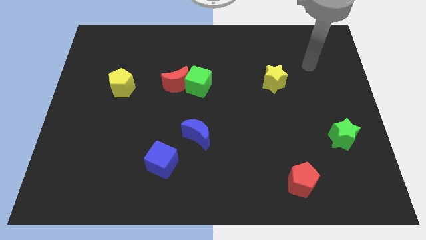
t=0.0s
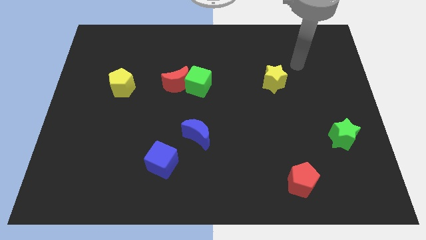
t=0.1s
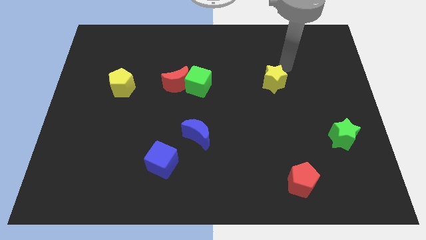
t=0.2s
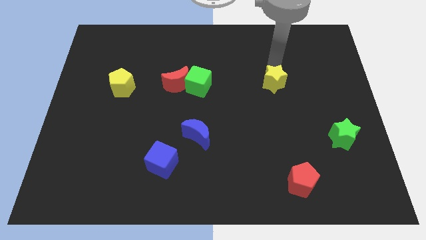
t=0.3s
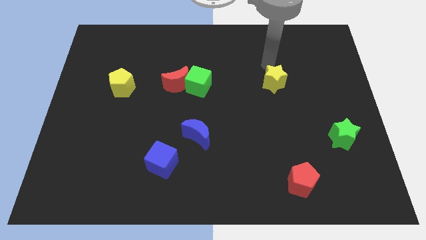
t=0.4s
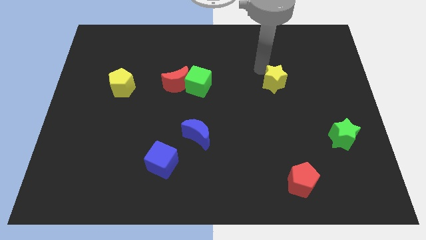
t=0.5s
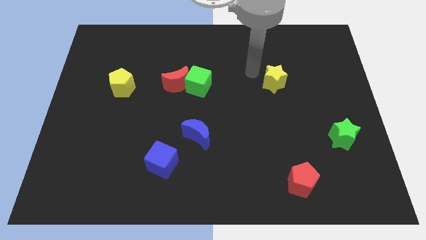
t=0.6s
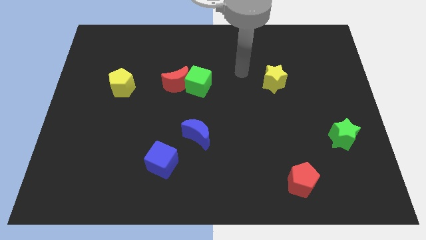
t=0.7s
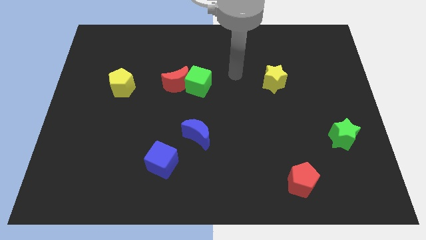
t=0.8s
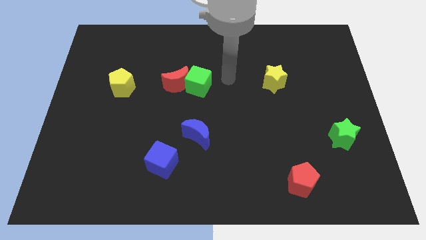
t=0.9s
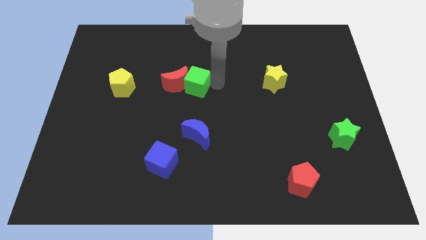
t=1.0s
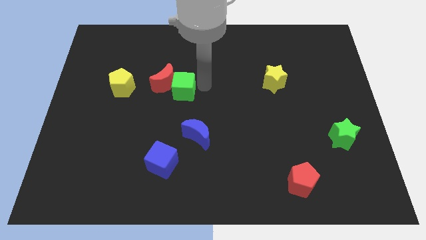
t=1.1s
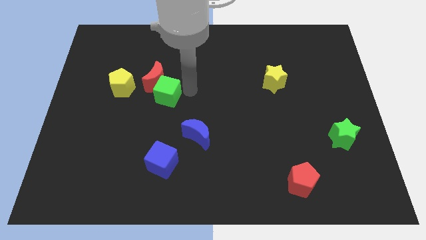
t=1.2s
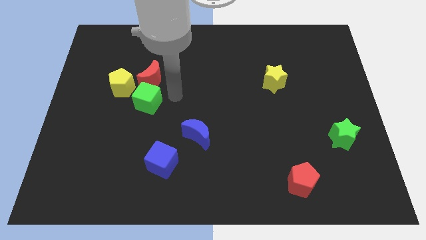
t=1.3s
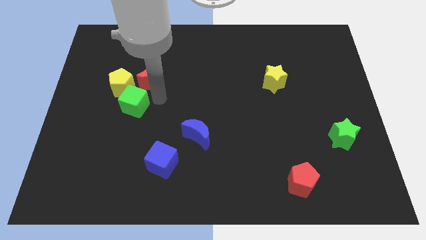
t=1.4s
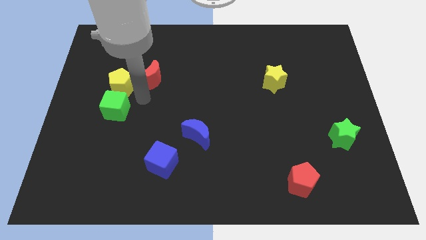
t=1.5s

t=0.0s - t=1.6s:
move the red moon away from the green cube

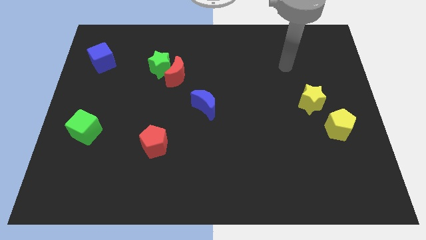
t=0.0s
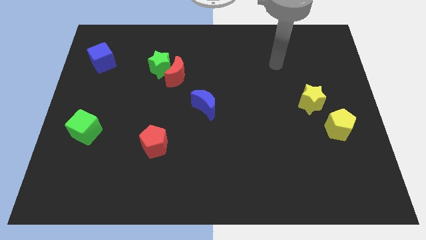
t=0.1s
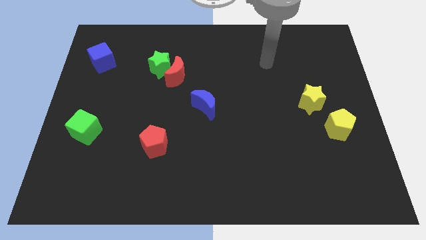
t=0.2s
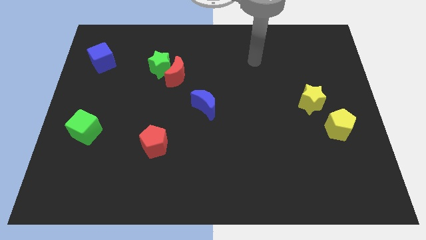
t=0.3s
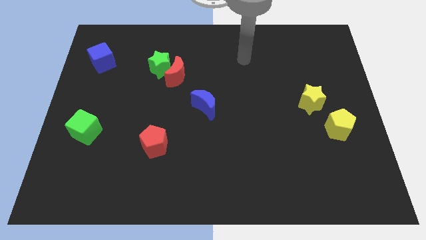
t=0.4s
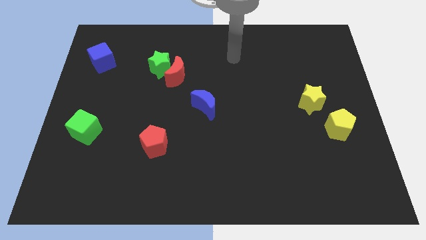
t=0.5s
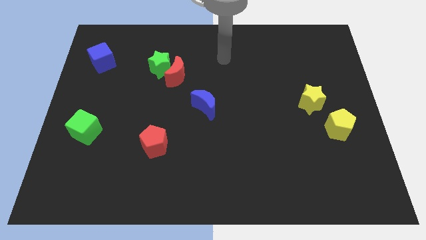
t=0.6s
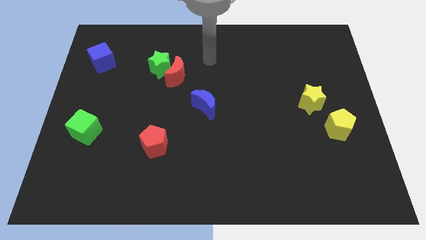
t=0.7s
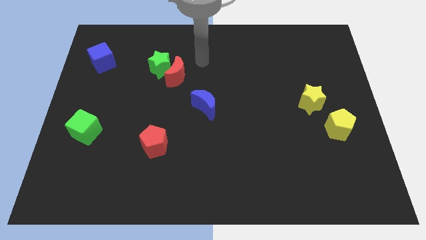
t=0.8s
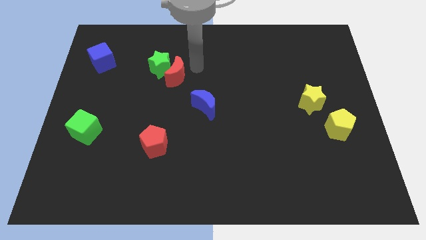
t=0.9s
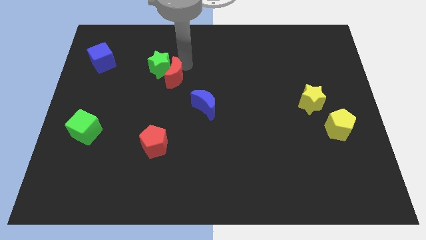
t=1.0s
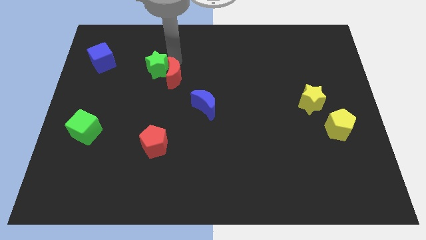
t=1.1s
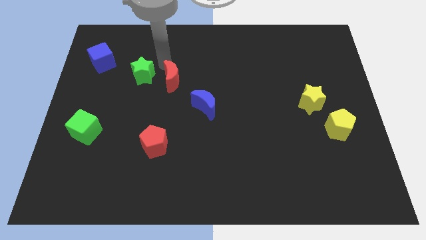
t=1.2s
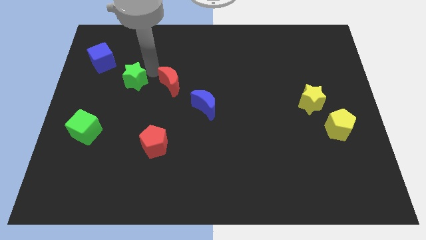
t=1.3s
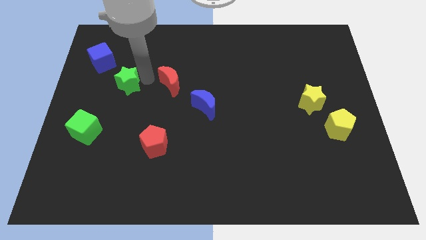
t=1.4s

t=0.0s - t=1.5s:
move the red moon away from the green star

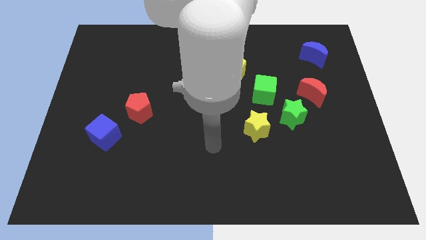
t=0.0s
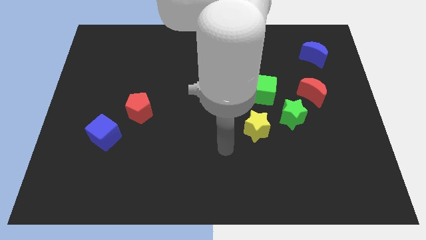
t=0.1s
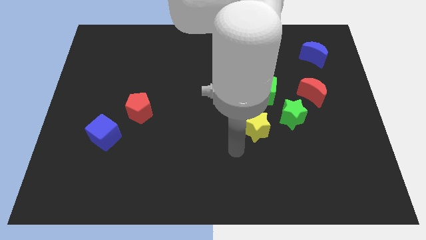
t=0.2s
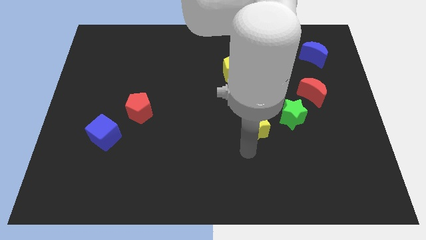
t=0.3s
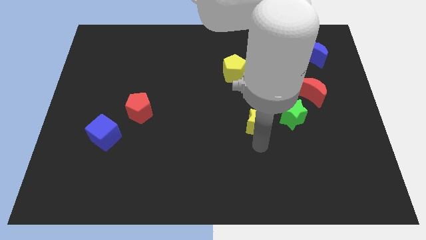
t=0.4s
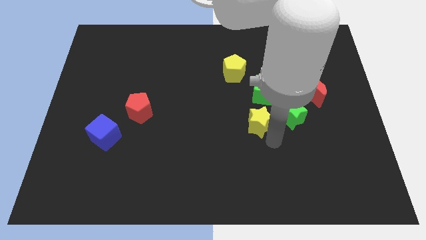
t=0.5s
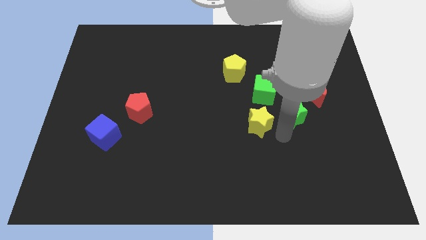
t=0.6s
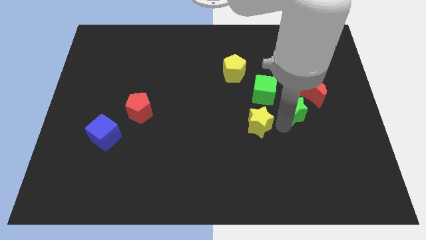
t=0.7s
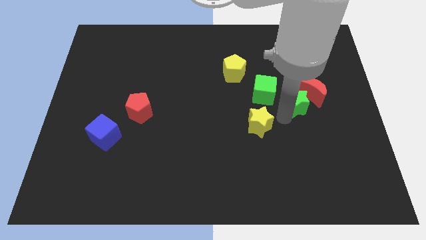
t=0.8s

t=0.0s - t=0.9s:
pull the yellow star apart from the green star

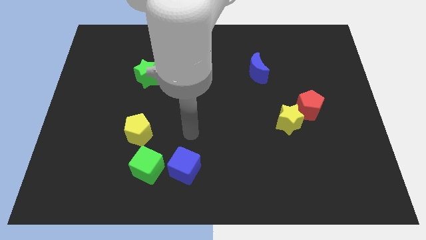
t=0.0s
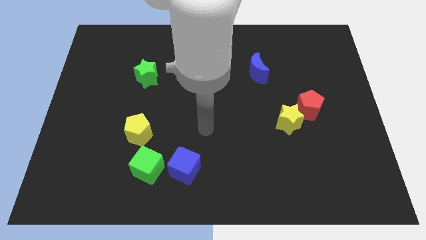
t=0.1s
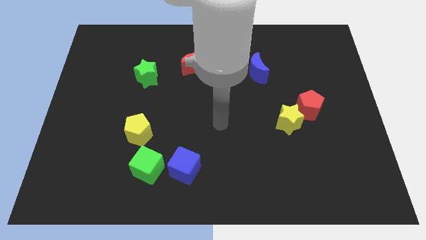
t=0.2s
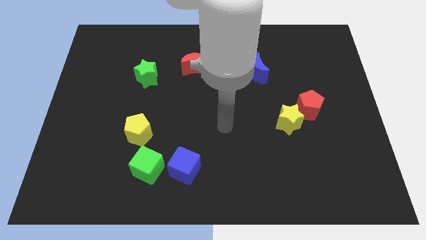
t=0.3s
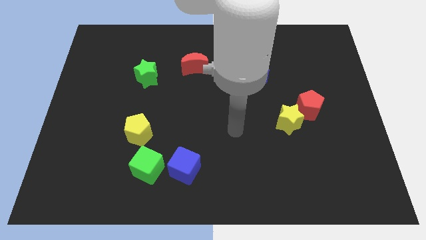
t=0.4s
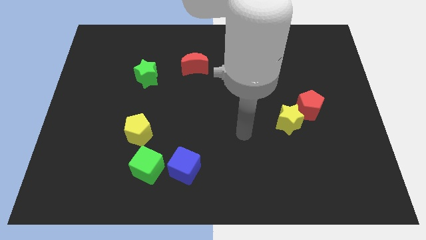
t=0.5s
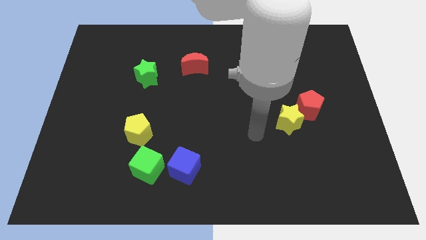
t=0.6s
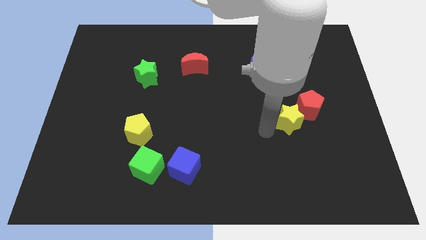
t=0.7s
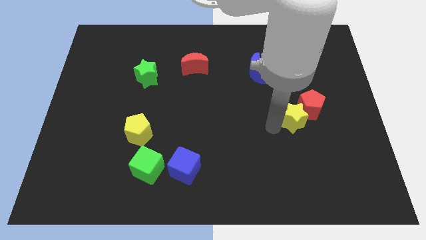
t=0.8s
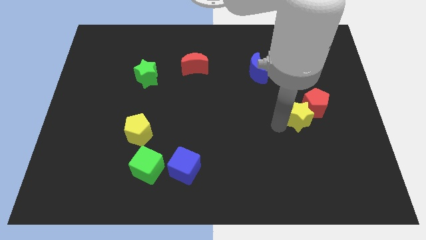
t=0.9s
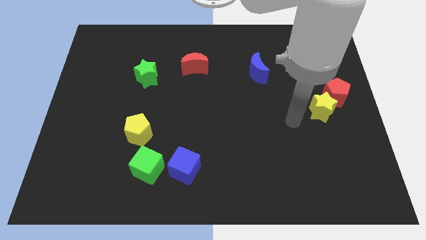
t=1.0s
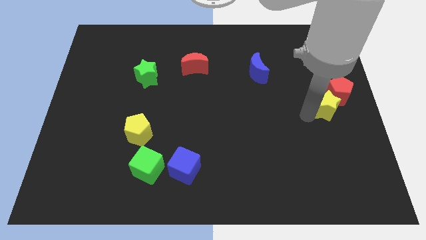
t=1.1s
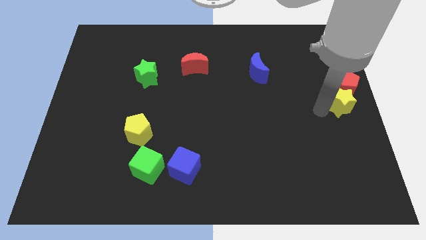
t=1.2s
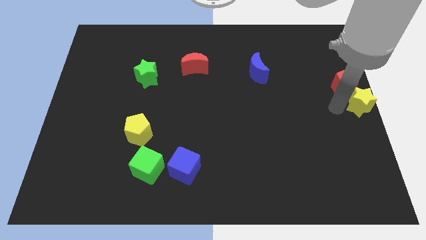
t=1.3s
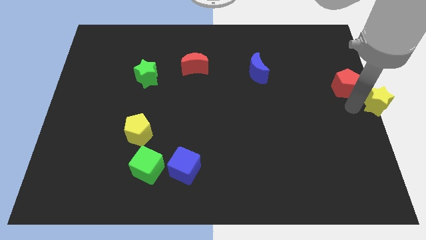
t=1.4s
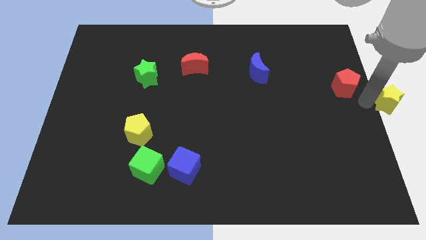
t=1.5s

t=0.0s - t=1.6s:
move the red pentagon away from the yellow star

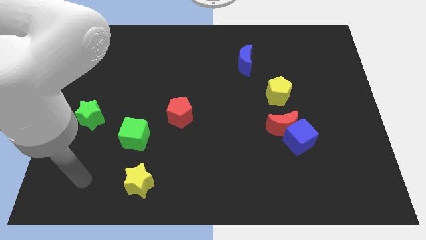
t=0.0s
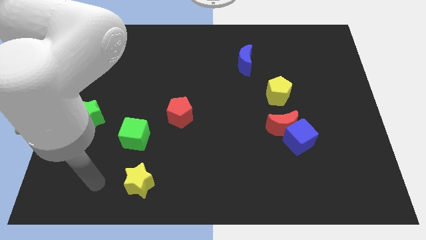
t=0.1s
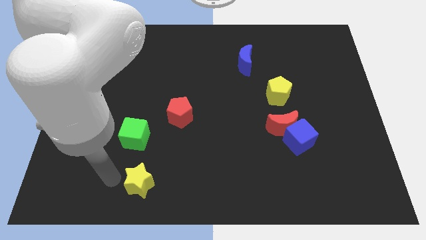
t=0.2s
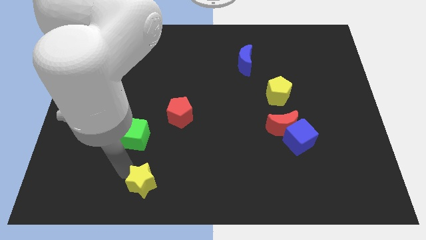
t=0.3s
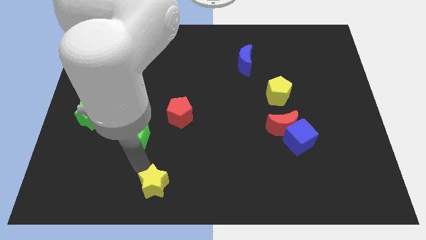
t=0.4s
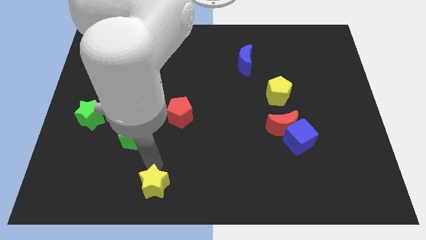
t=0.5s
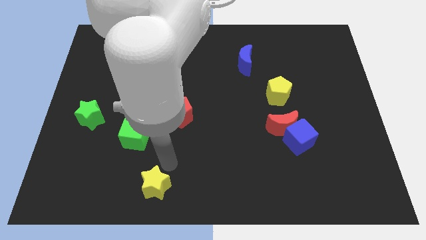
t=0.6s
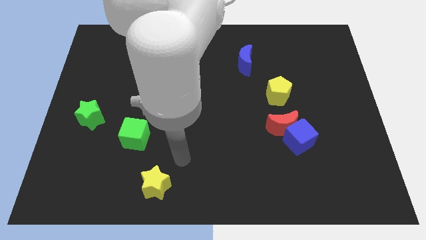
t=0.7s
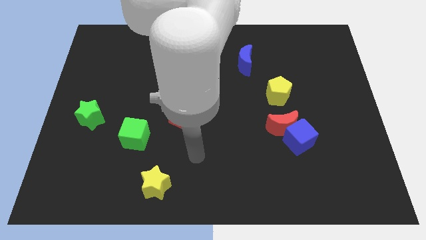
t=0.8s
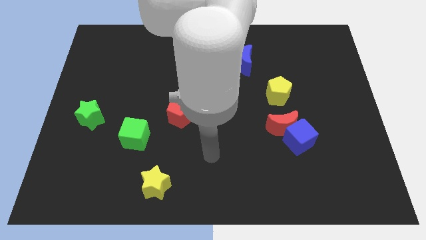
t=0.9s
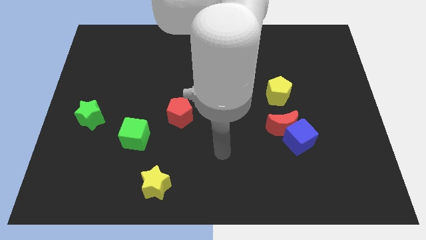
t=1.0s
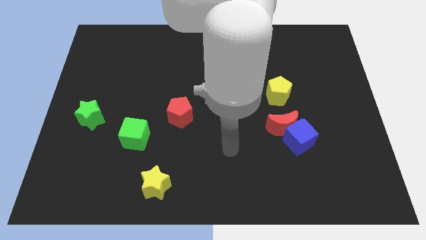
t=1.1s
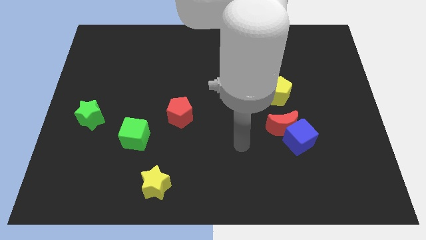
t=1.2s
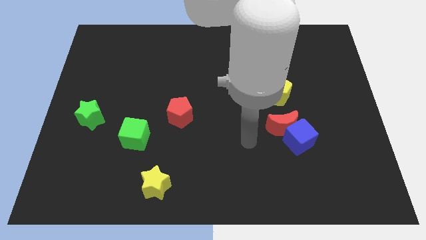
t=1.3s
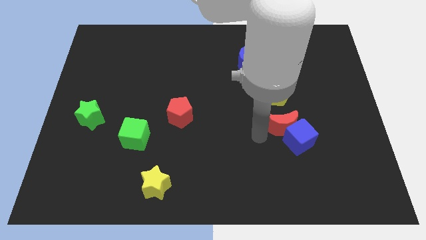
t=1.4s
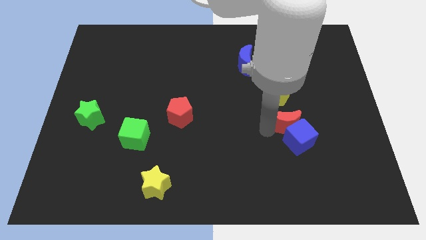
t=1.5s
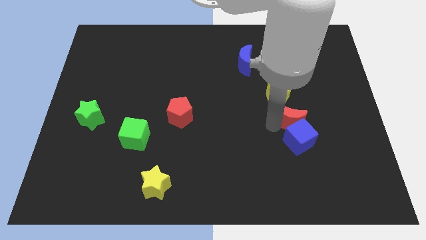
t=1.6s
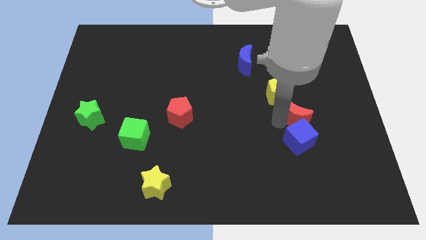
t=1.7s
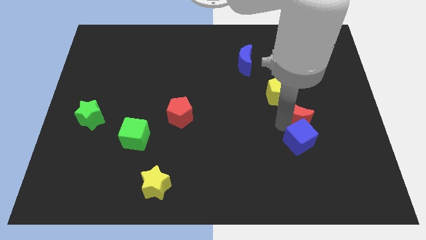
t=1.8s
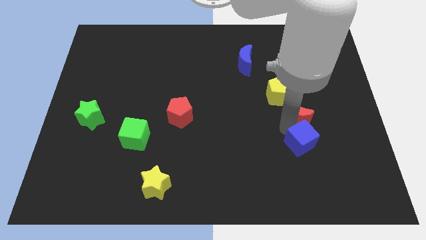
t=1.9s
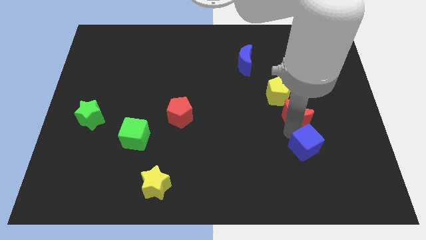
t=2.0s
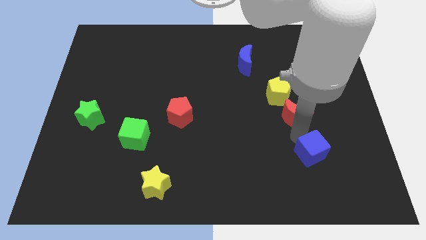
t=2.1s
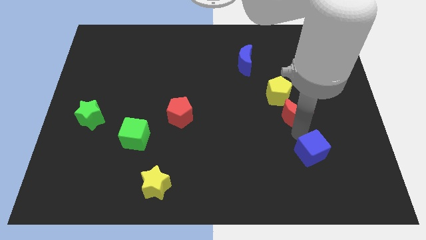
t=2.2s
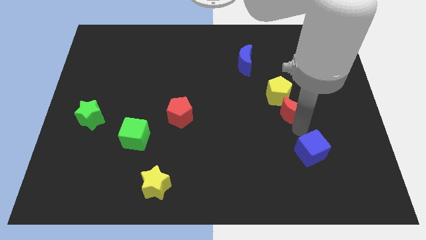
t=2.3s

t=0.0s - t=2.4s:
pull the blue cube apart from the red moon

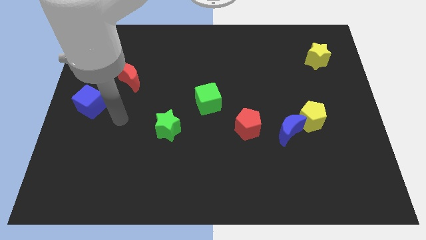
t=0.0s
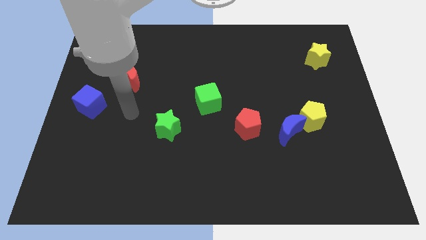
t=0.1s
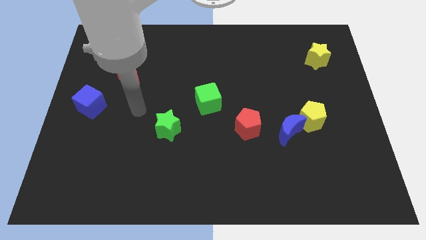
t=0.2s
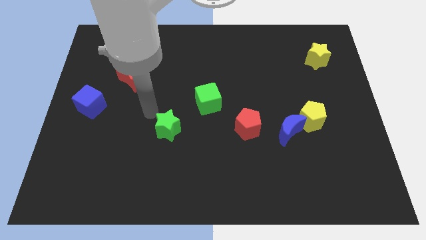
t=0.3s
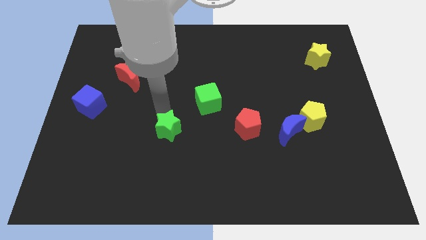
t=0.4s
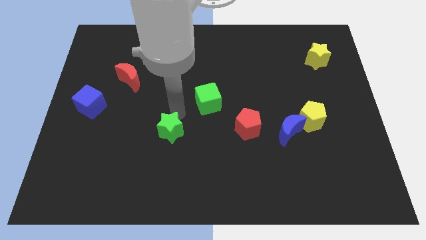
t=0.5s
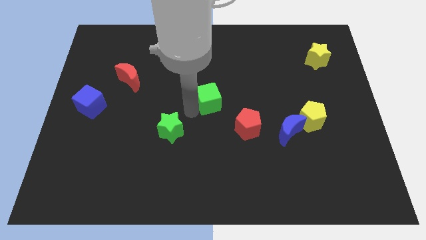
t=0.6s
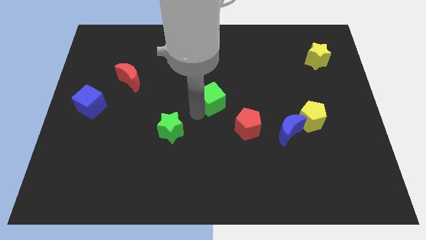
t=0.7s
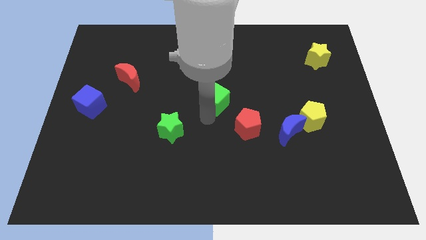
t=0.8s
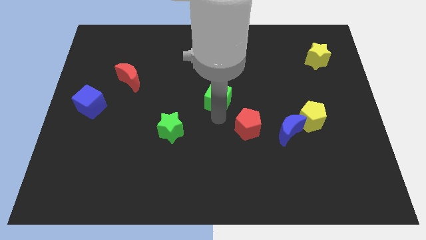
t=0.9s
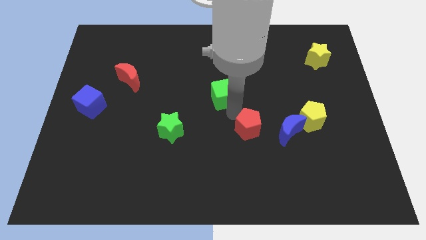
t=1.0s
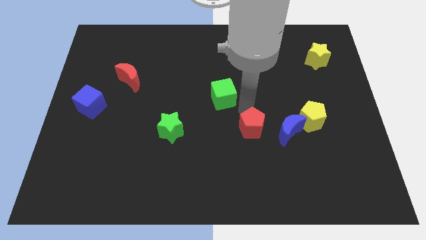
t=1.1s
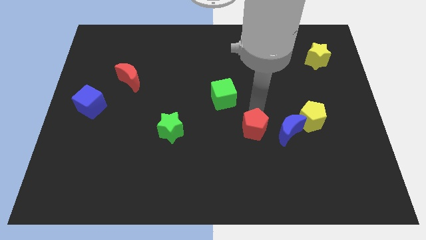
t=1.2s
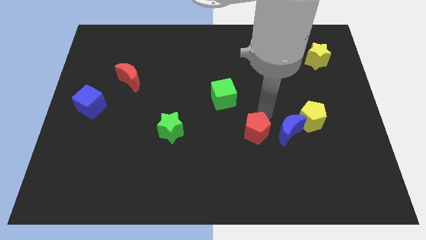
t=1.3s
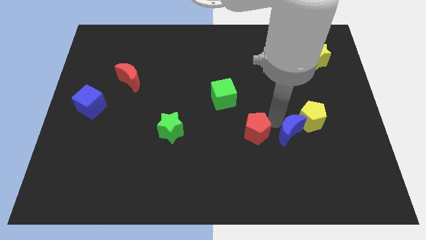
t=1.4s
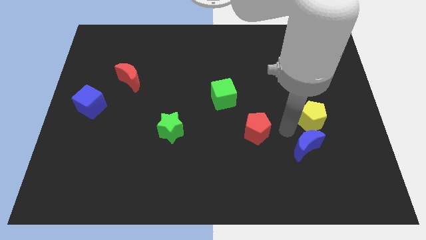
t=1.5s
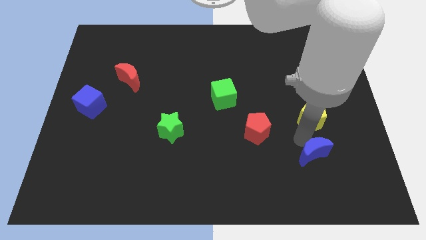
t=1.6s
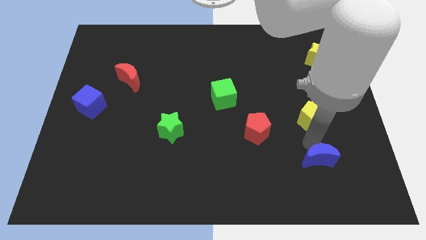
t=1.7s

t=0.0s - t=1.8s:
separate the yellow pentagon from the blue moon
